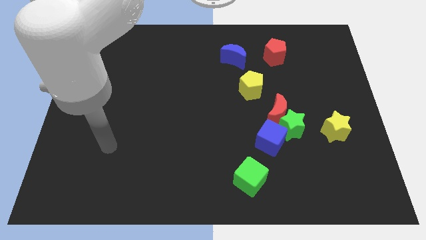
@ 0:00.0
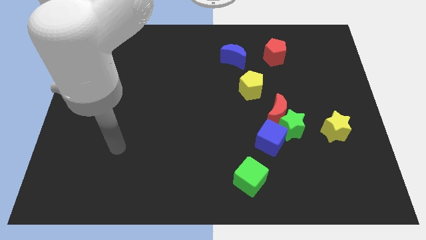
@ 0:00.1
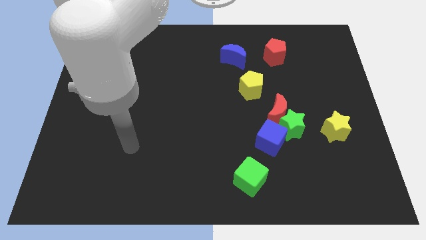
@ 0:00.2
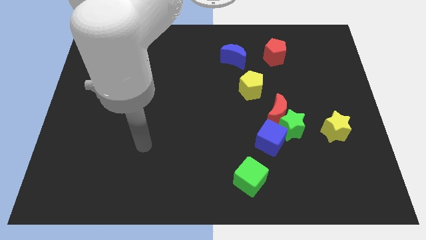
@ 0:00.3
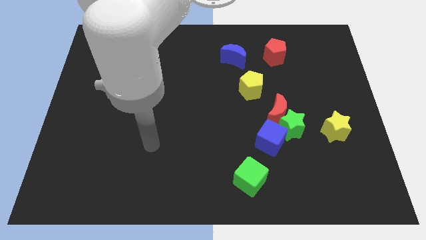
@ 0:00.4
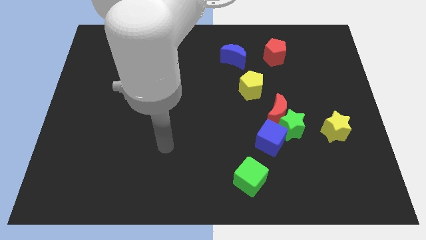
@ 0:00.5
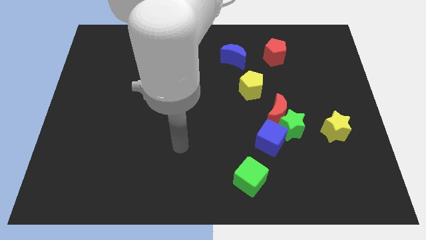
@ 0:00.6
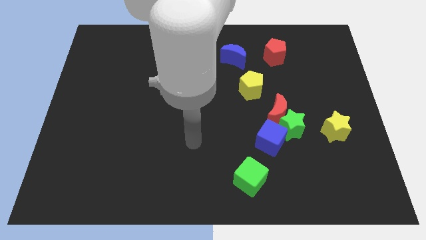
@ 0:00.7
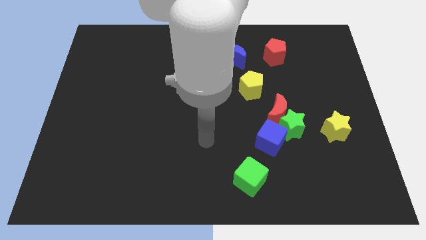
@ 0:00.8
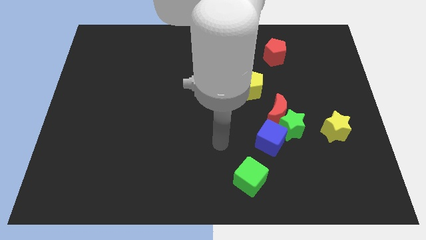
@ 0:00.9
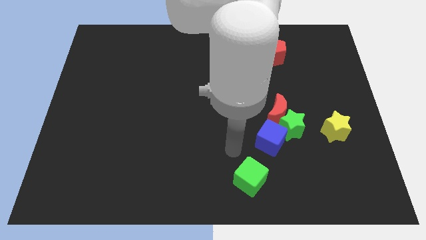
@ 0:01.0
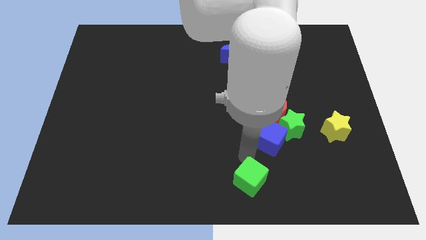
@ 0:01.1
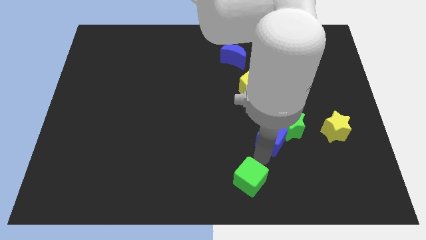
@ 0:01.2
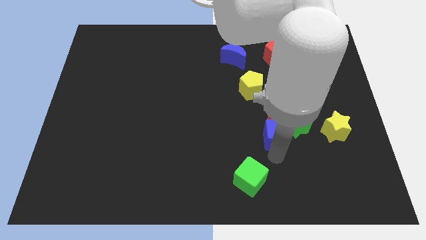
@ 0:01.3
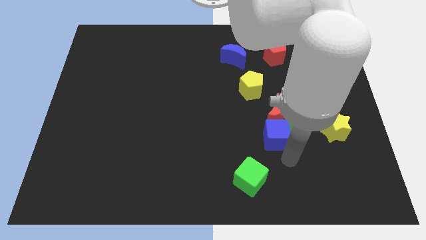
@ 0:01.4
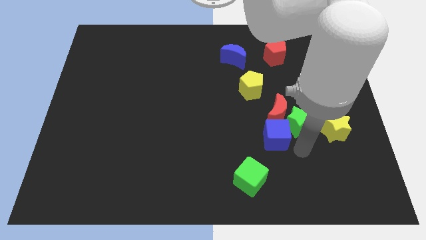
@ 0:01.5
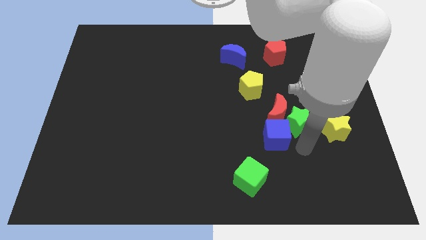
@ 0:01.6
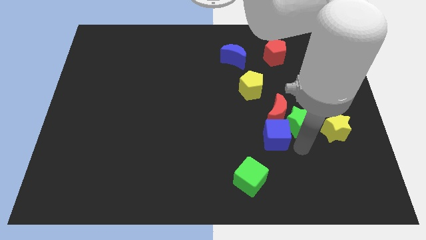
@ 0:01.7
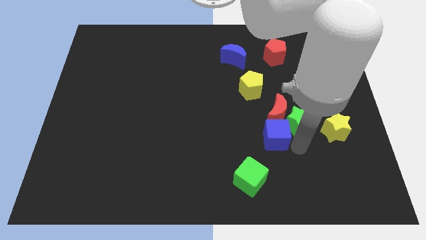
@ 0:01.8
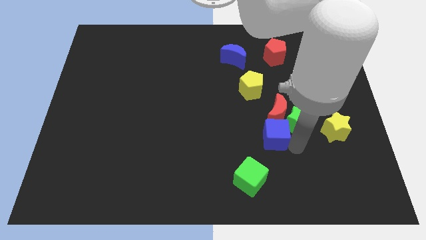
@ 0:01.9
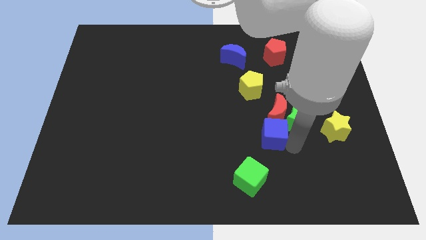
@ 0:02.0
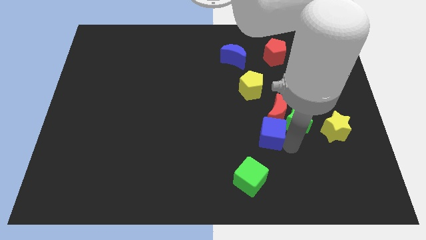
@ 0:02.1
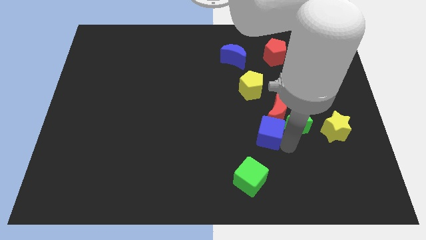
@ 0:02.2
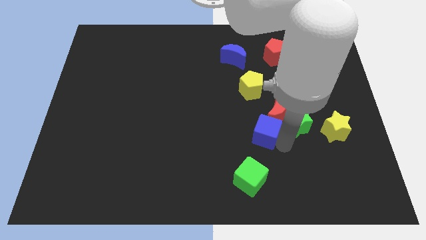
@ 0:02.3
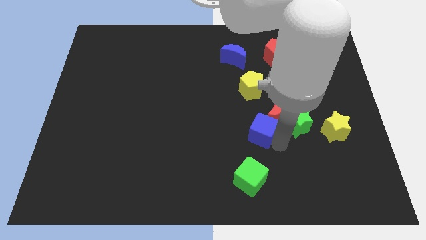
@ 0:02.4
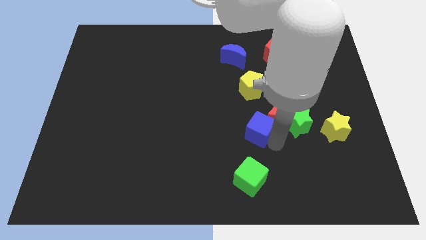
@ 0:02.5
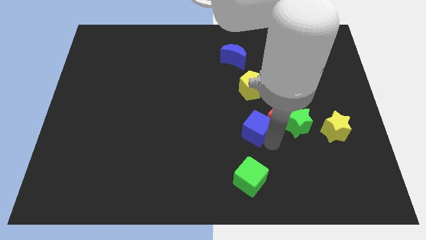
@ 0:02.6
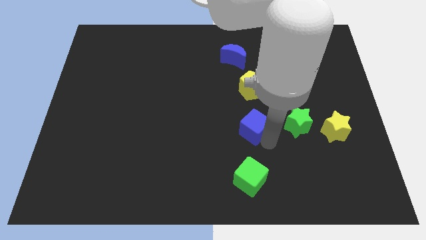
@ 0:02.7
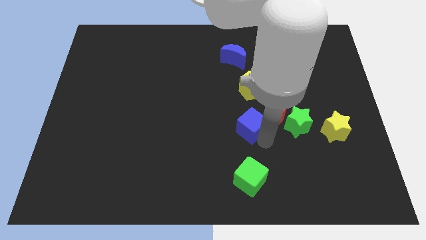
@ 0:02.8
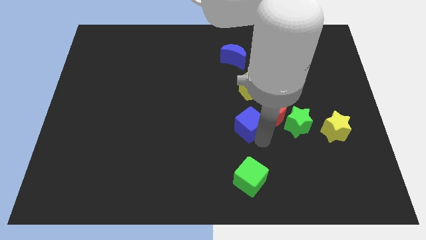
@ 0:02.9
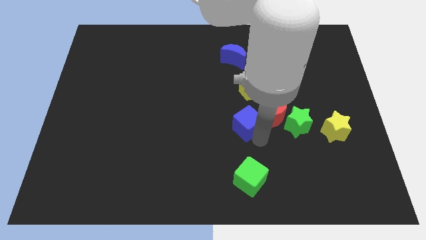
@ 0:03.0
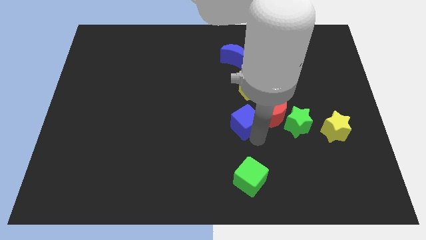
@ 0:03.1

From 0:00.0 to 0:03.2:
slightly move the blue cube upwards and then left

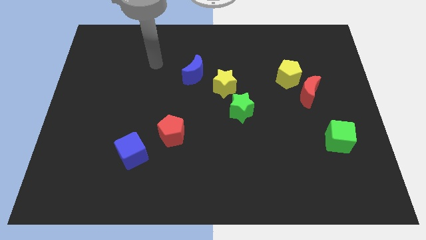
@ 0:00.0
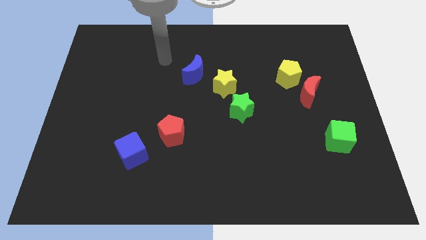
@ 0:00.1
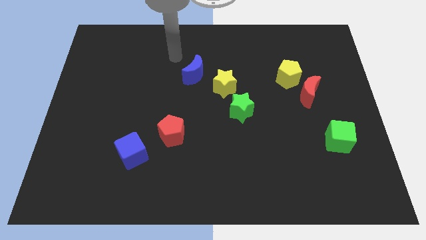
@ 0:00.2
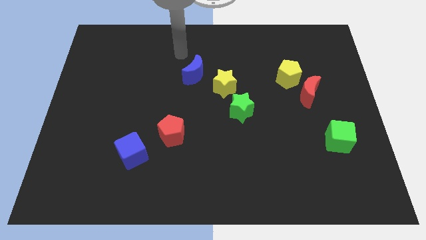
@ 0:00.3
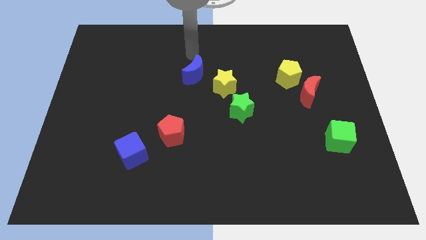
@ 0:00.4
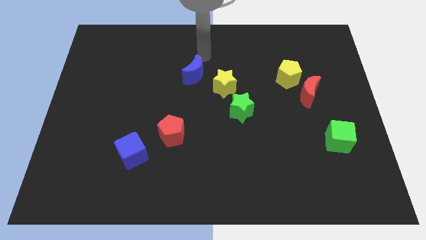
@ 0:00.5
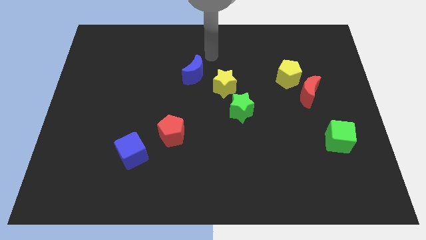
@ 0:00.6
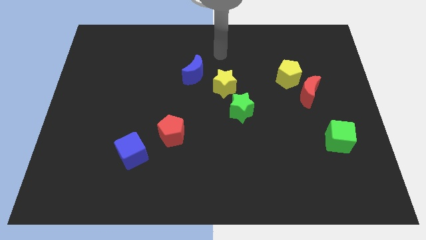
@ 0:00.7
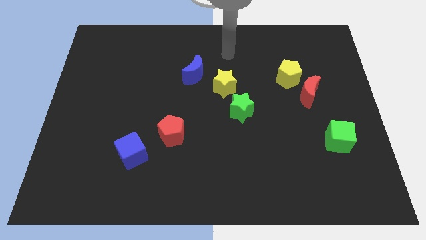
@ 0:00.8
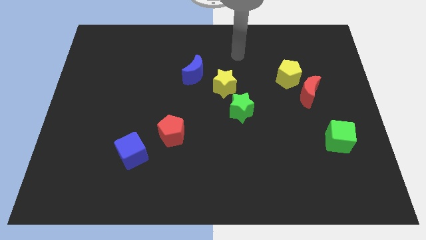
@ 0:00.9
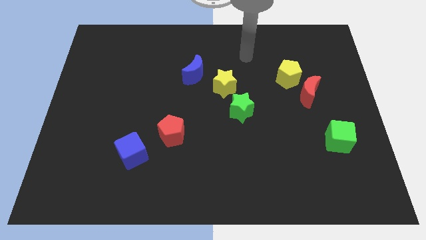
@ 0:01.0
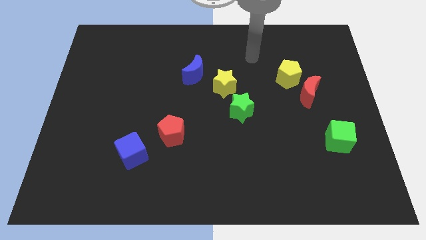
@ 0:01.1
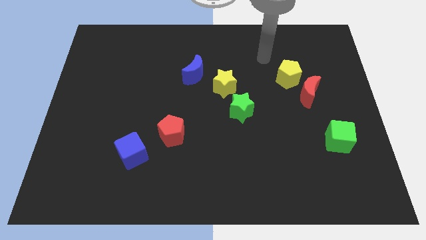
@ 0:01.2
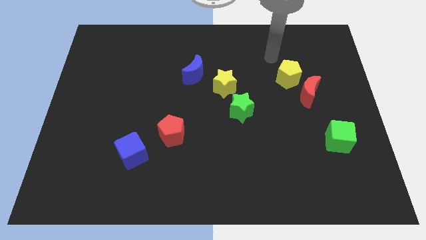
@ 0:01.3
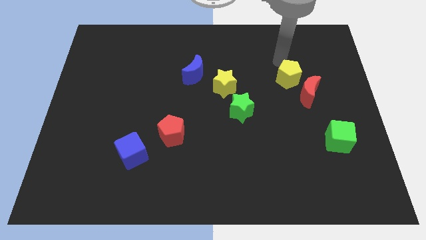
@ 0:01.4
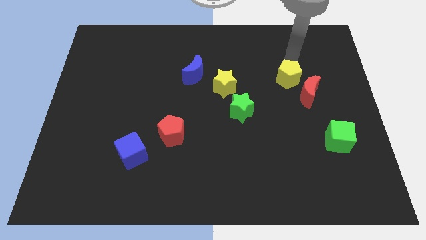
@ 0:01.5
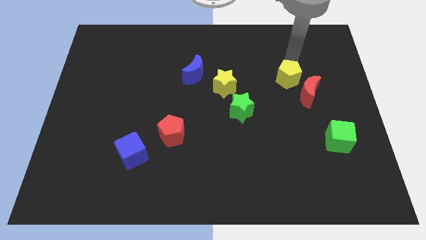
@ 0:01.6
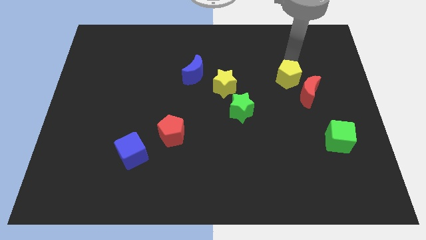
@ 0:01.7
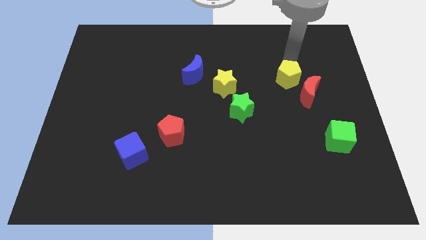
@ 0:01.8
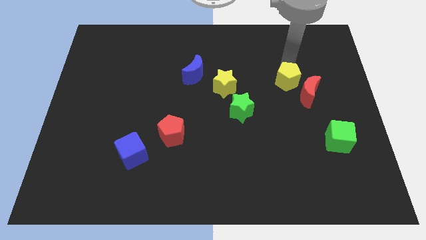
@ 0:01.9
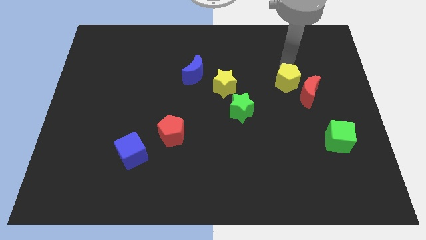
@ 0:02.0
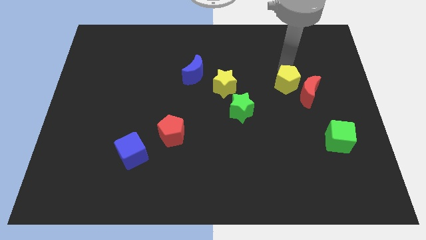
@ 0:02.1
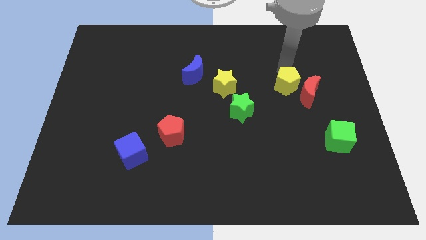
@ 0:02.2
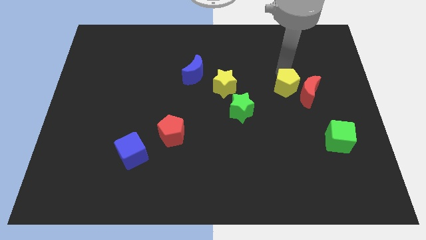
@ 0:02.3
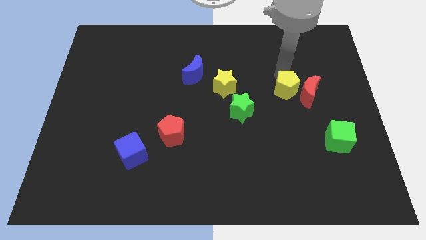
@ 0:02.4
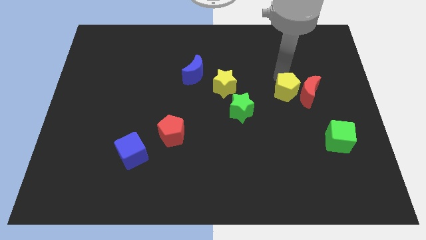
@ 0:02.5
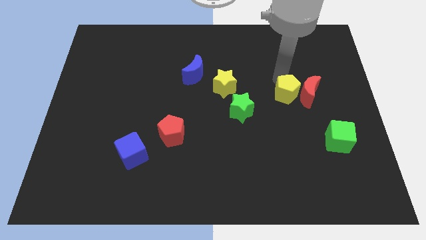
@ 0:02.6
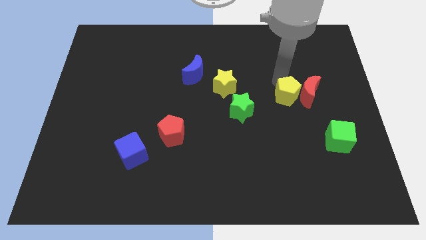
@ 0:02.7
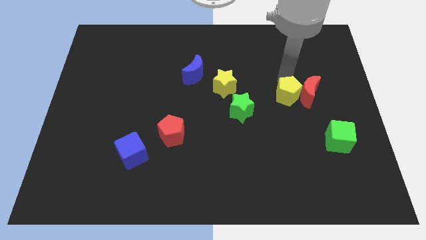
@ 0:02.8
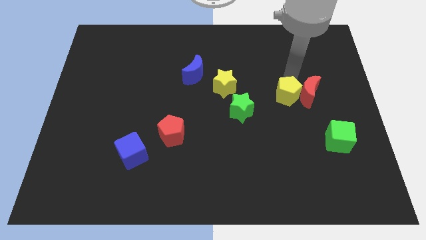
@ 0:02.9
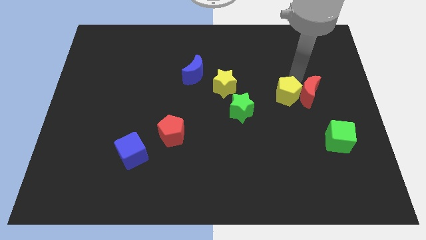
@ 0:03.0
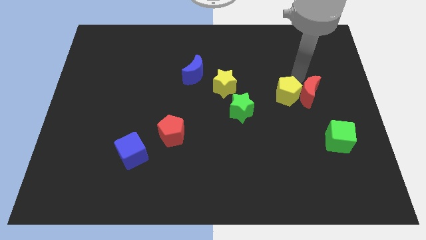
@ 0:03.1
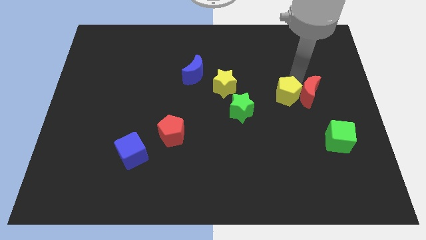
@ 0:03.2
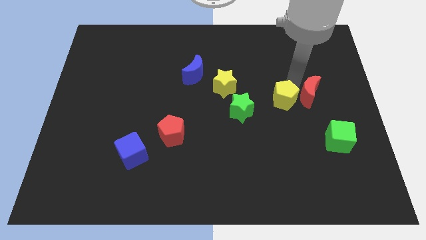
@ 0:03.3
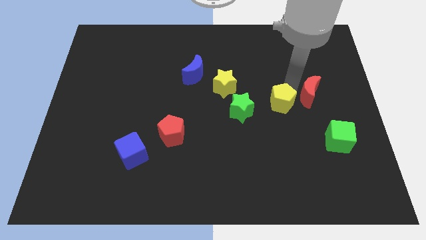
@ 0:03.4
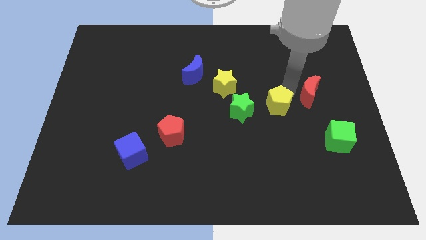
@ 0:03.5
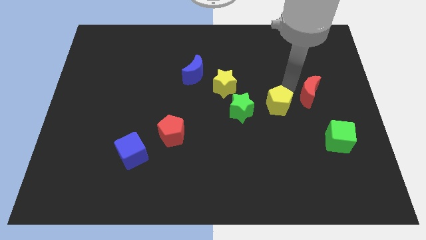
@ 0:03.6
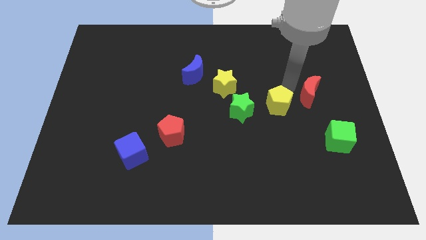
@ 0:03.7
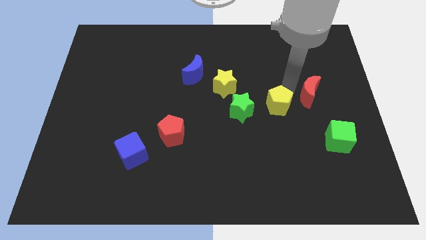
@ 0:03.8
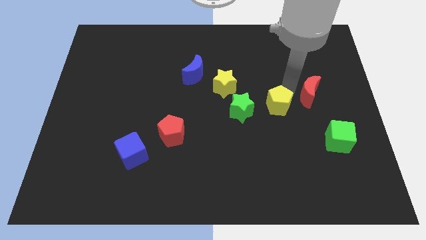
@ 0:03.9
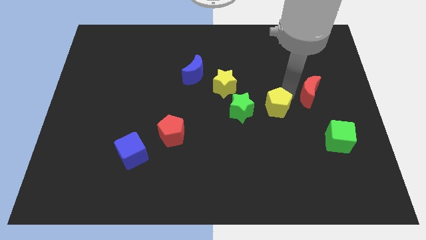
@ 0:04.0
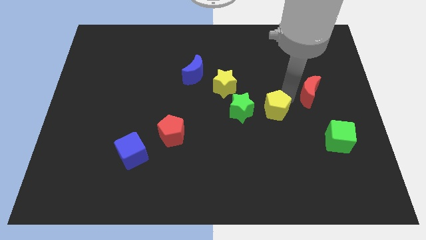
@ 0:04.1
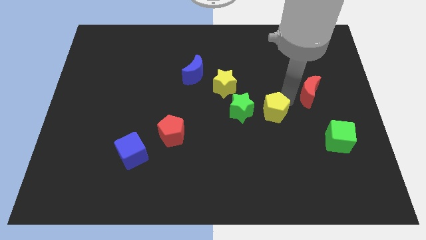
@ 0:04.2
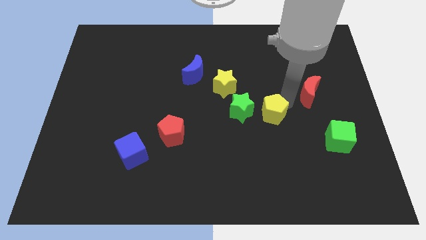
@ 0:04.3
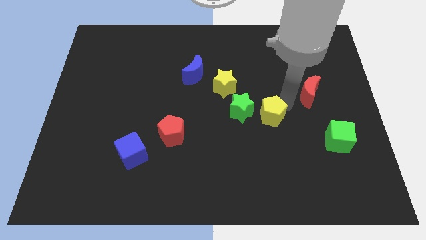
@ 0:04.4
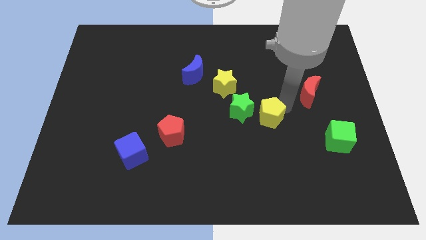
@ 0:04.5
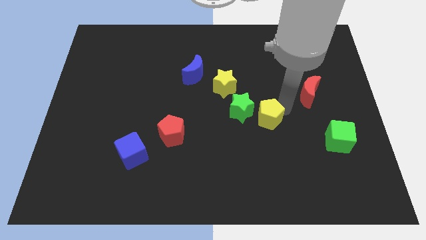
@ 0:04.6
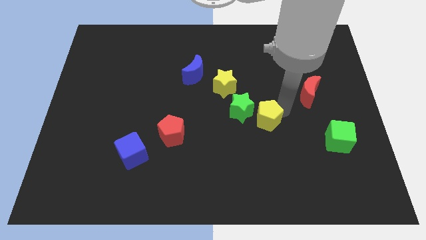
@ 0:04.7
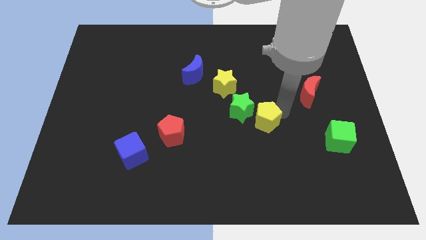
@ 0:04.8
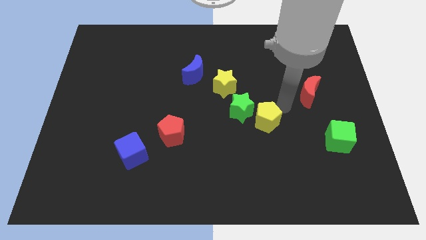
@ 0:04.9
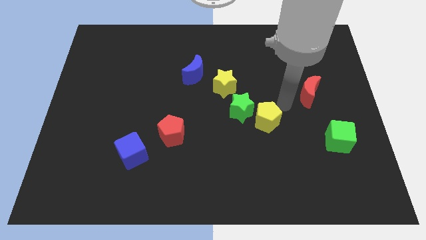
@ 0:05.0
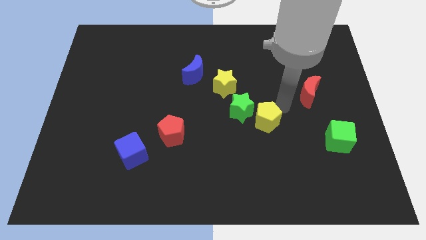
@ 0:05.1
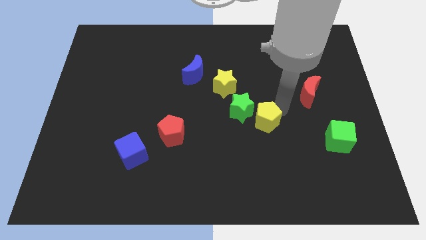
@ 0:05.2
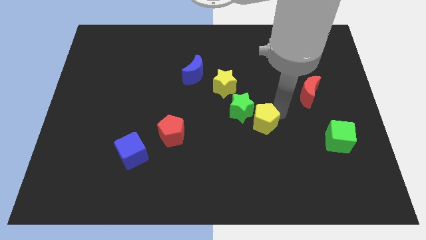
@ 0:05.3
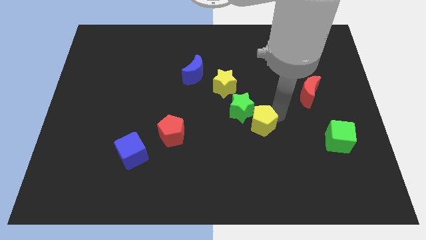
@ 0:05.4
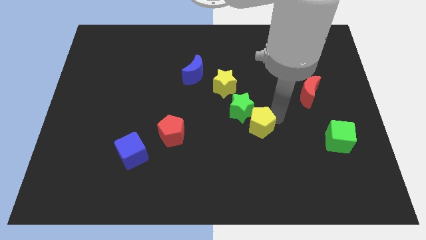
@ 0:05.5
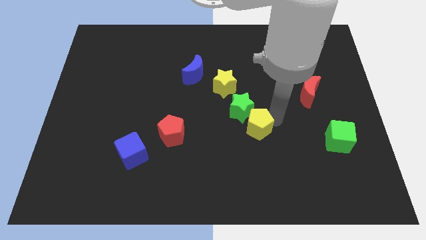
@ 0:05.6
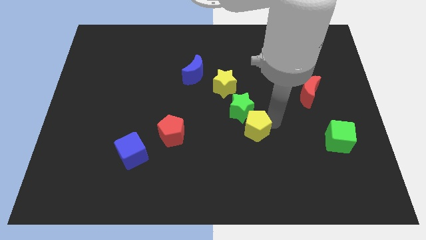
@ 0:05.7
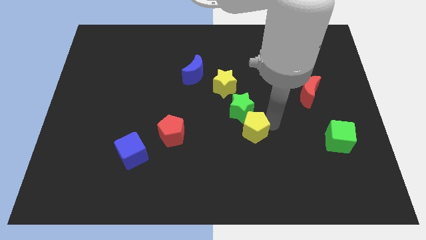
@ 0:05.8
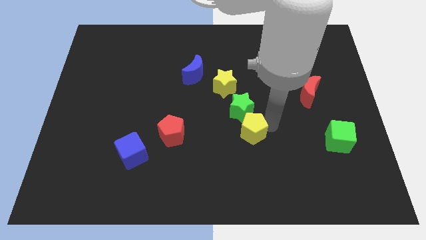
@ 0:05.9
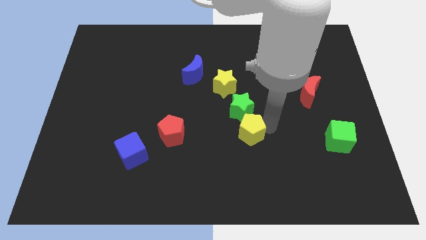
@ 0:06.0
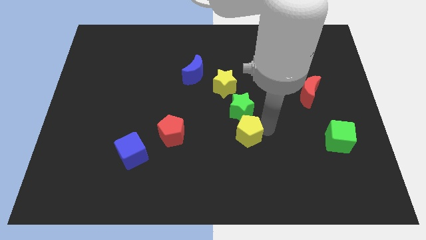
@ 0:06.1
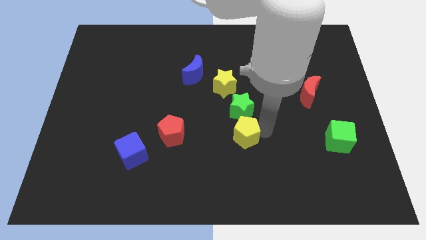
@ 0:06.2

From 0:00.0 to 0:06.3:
move the yellow pentagon downwards and then to the left
